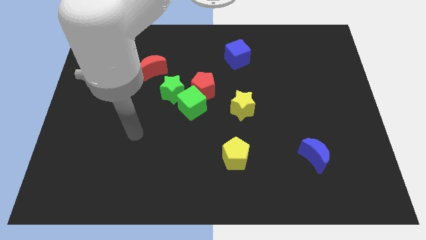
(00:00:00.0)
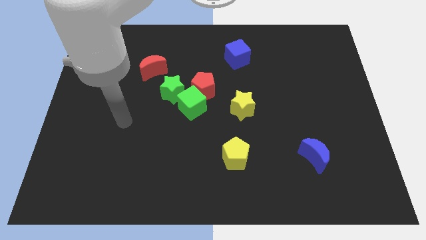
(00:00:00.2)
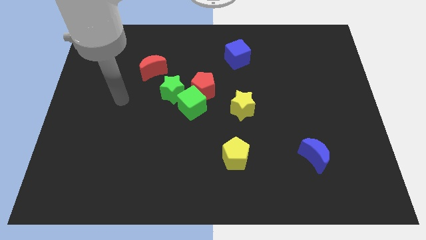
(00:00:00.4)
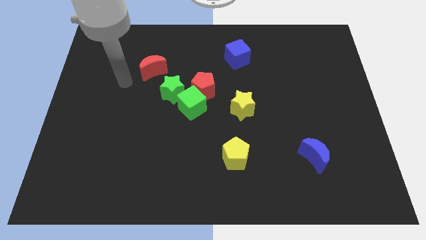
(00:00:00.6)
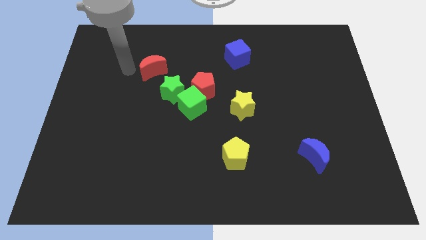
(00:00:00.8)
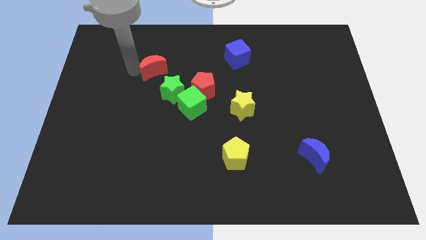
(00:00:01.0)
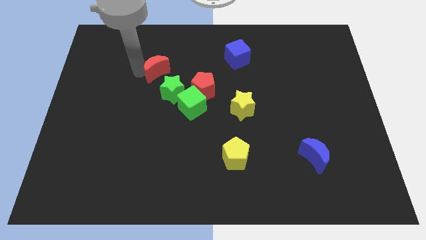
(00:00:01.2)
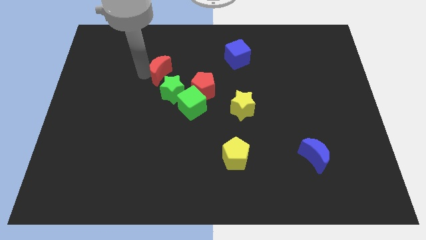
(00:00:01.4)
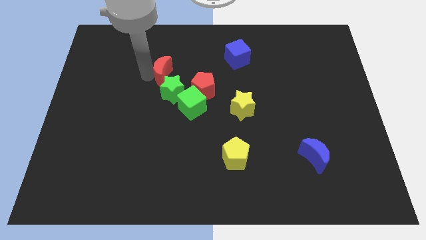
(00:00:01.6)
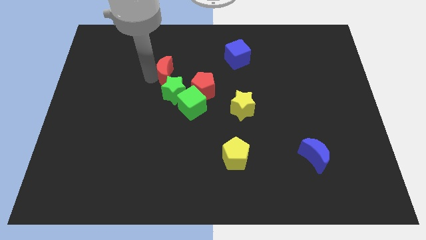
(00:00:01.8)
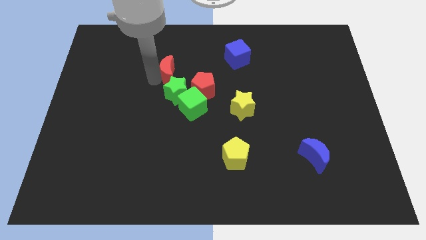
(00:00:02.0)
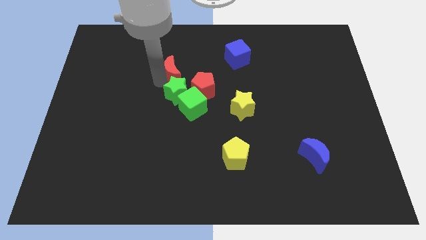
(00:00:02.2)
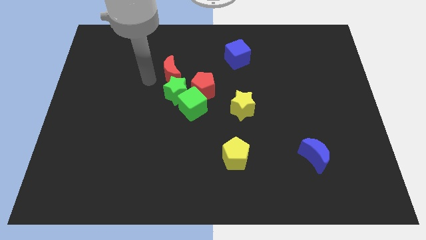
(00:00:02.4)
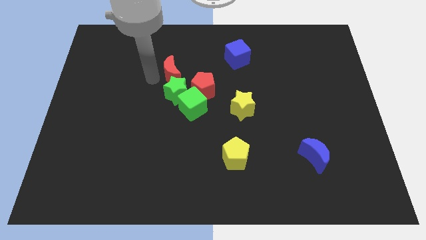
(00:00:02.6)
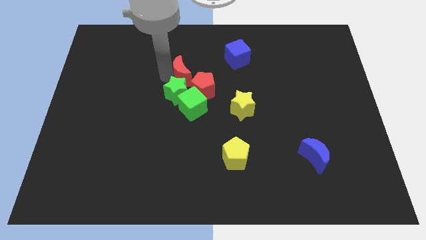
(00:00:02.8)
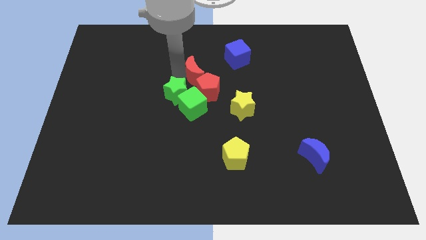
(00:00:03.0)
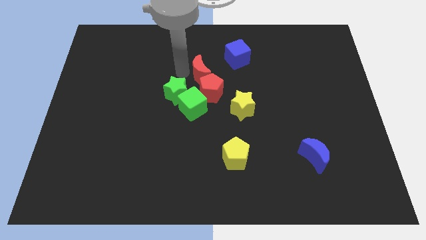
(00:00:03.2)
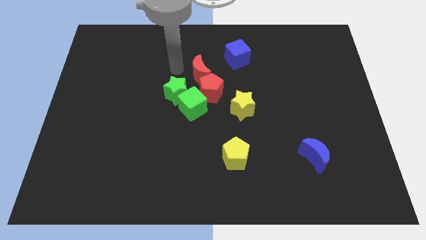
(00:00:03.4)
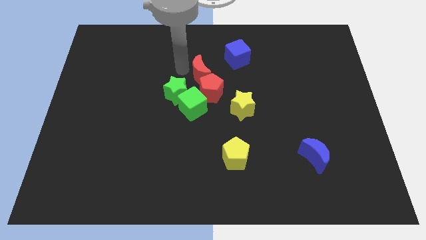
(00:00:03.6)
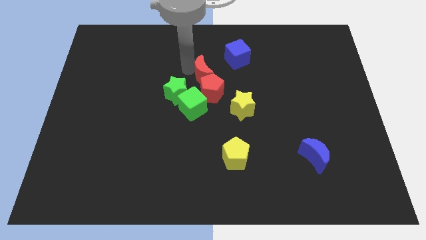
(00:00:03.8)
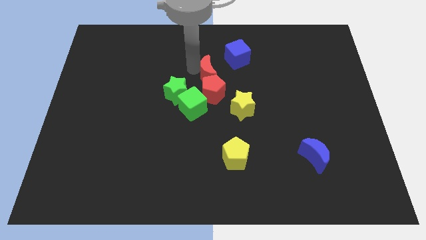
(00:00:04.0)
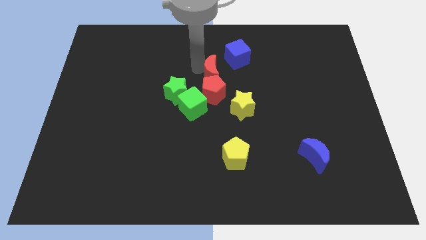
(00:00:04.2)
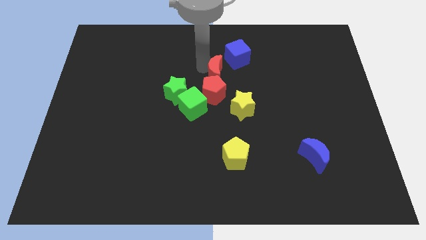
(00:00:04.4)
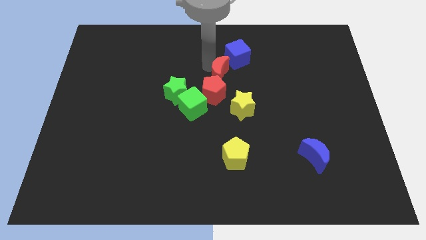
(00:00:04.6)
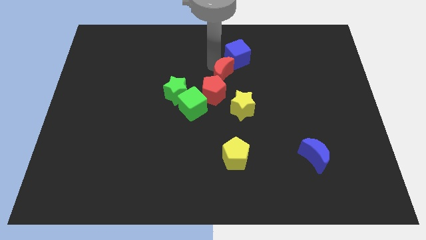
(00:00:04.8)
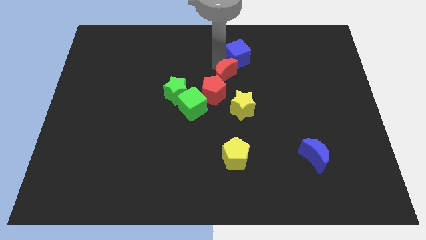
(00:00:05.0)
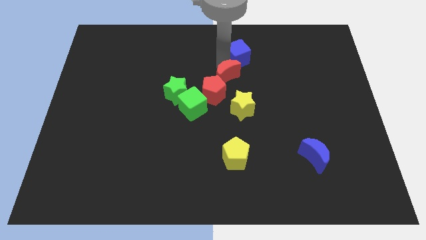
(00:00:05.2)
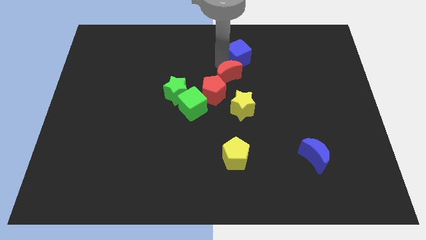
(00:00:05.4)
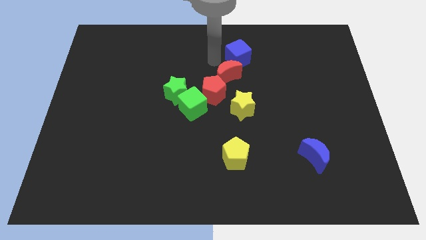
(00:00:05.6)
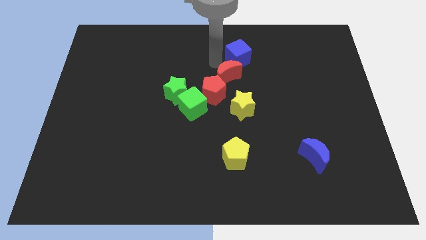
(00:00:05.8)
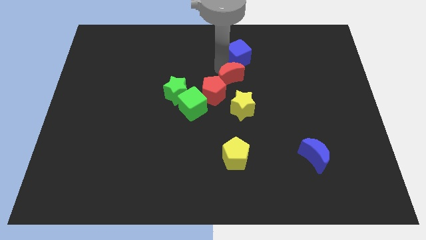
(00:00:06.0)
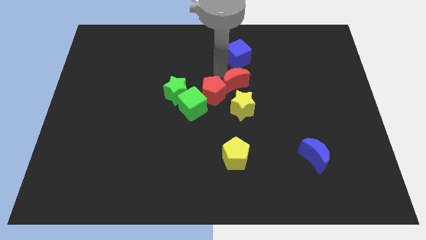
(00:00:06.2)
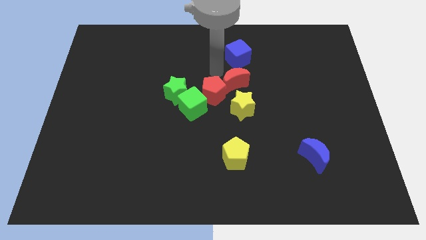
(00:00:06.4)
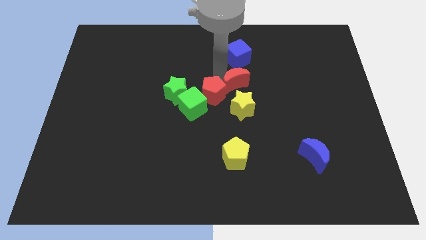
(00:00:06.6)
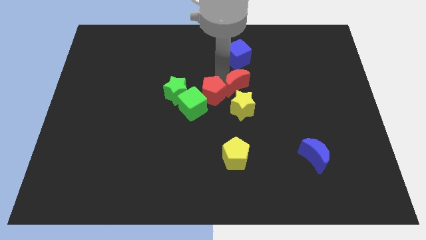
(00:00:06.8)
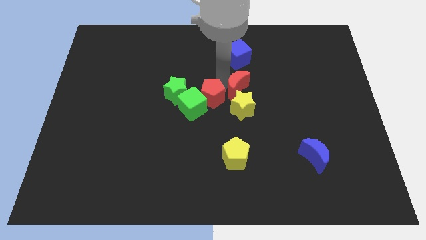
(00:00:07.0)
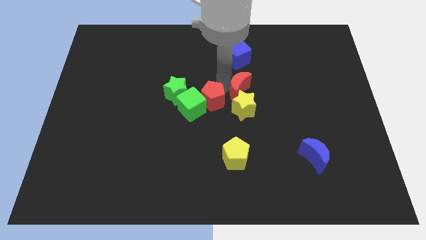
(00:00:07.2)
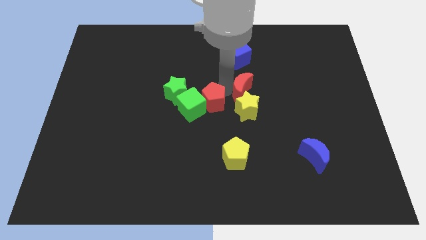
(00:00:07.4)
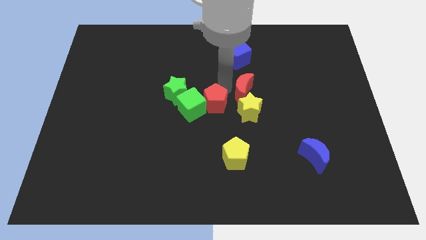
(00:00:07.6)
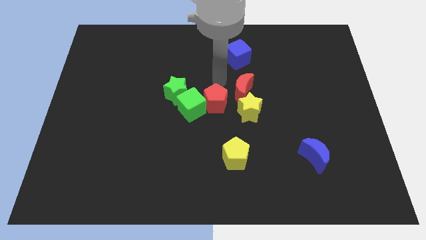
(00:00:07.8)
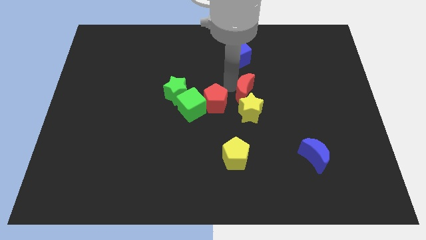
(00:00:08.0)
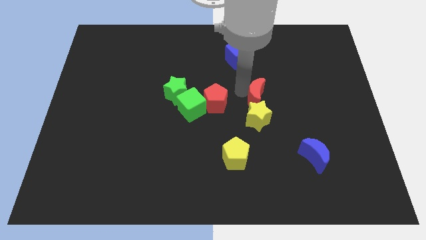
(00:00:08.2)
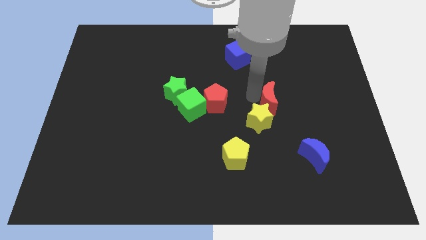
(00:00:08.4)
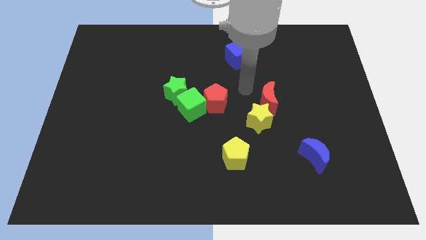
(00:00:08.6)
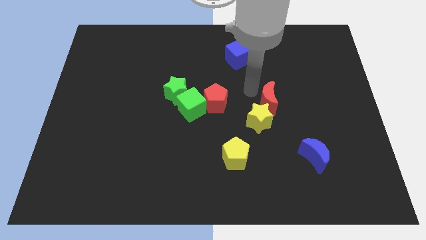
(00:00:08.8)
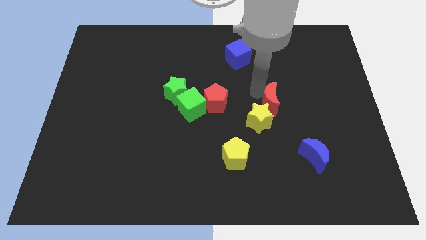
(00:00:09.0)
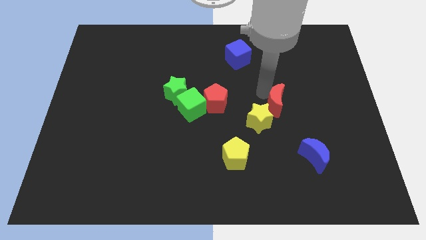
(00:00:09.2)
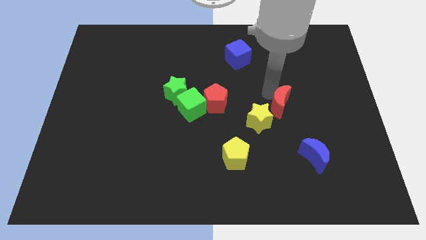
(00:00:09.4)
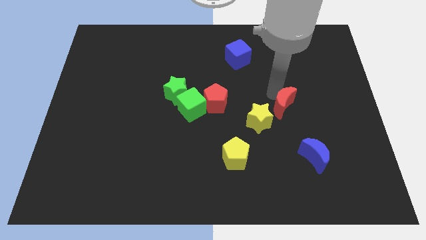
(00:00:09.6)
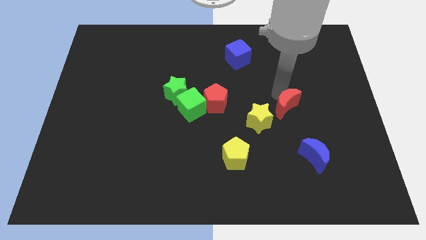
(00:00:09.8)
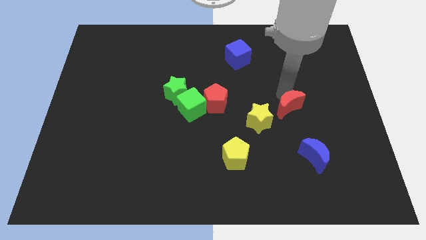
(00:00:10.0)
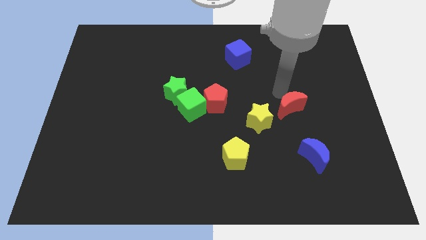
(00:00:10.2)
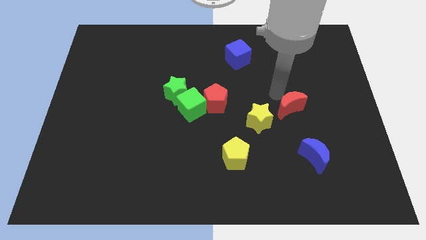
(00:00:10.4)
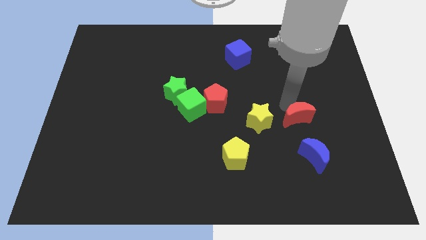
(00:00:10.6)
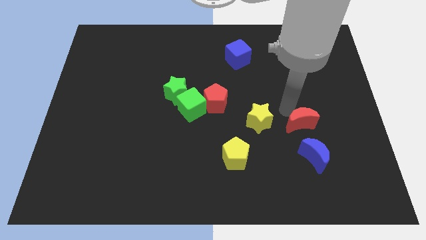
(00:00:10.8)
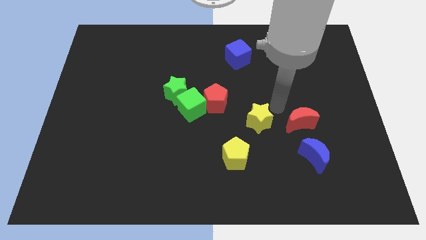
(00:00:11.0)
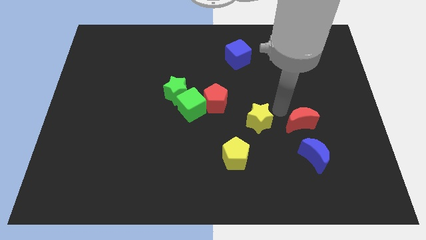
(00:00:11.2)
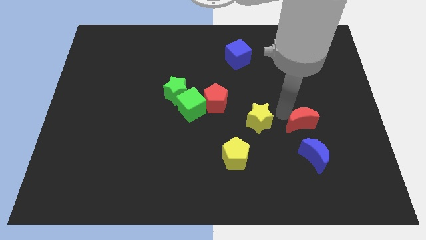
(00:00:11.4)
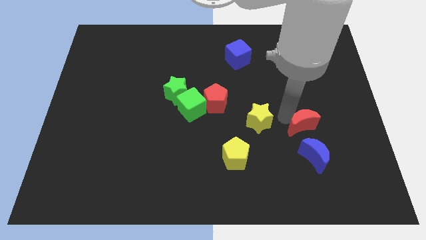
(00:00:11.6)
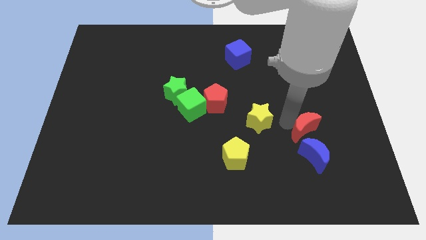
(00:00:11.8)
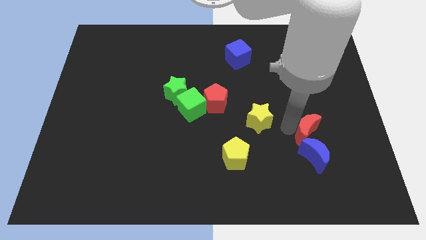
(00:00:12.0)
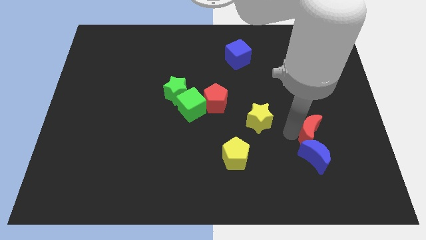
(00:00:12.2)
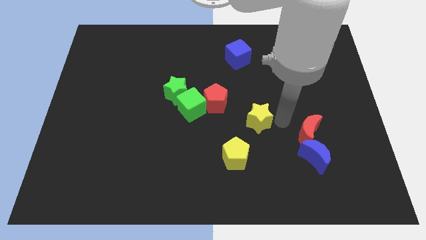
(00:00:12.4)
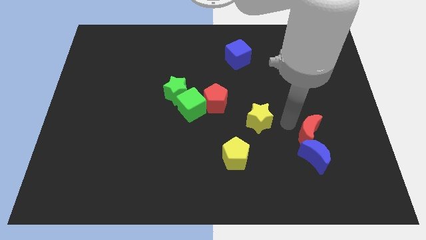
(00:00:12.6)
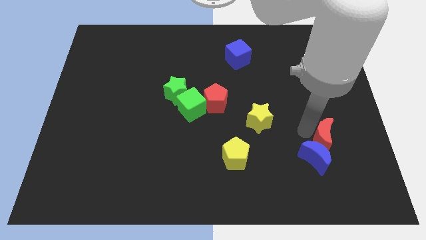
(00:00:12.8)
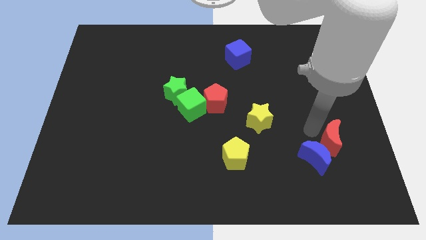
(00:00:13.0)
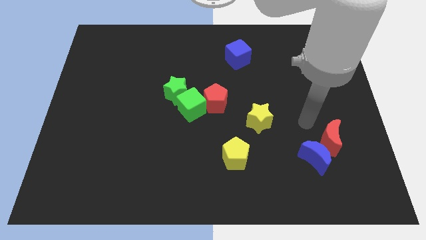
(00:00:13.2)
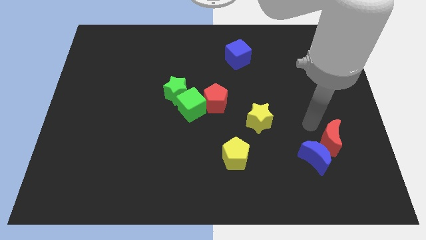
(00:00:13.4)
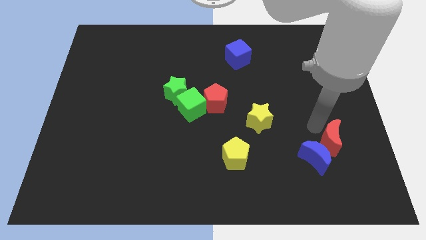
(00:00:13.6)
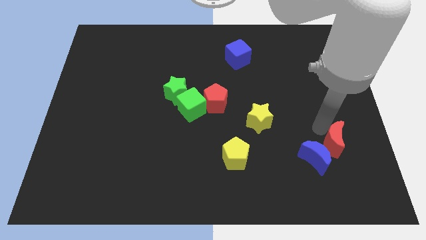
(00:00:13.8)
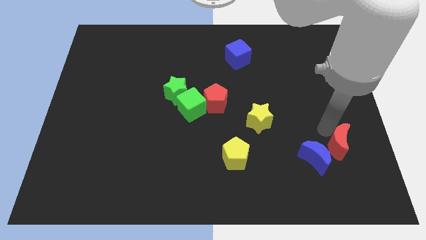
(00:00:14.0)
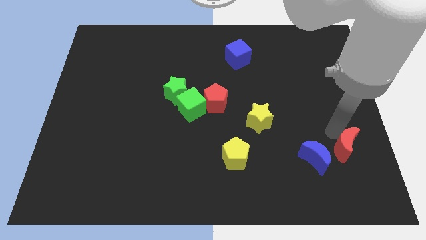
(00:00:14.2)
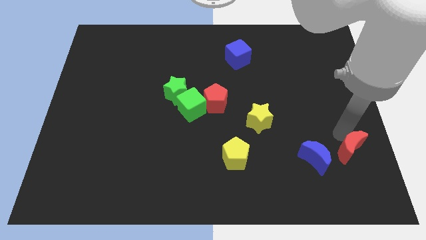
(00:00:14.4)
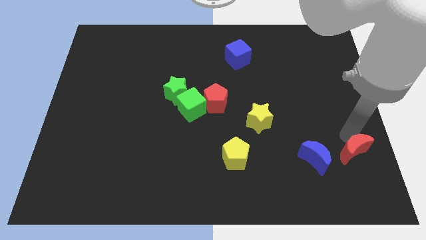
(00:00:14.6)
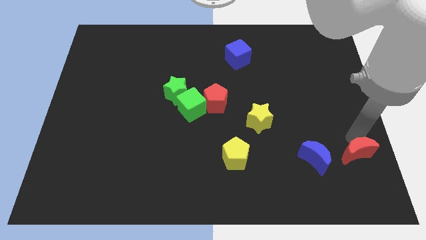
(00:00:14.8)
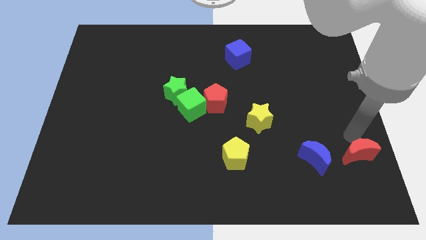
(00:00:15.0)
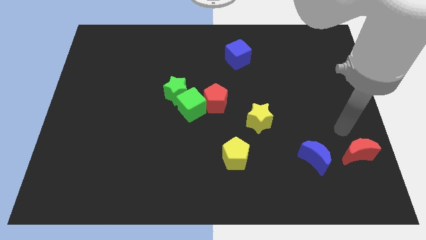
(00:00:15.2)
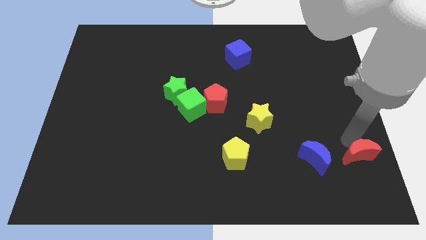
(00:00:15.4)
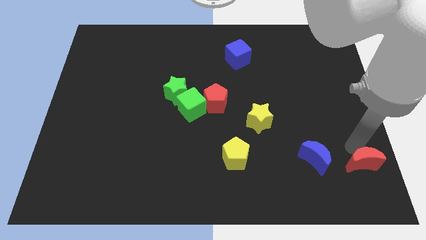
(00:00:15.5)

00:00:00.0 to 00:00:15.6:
put the red moon to the bottom right
